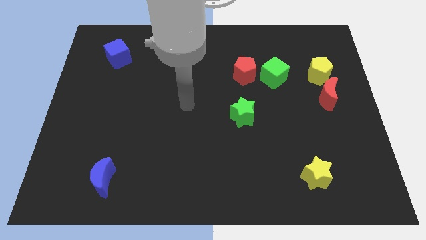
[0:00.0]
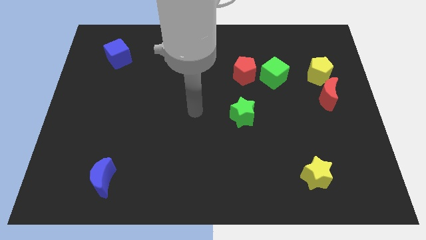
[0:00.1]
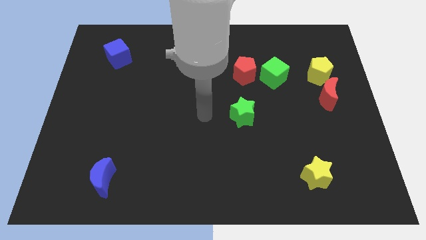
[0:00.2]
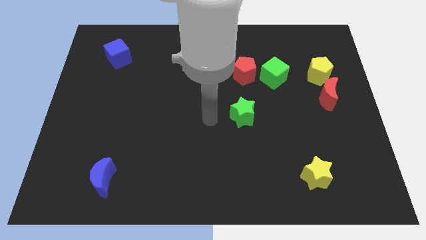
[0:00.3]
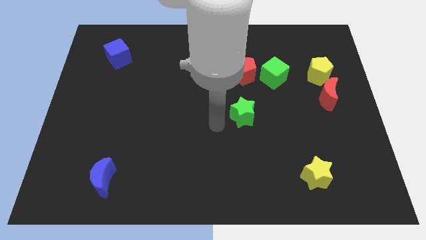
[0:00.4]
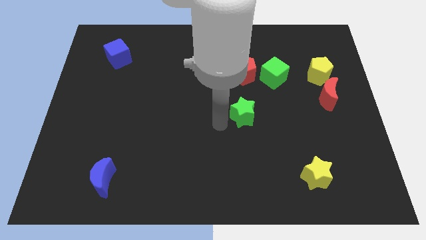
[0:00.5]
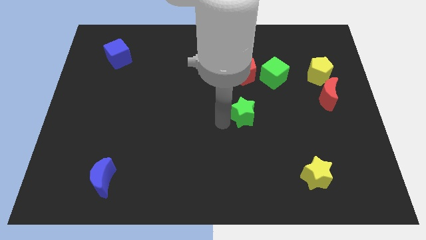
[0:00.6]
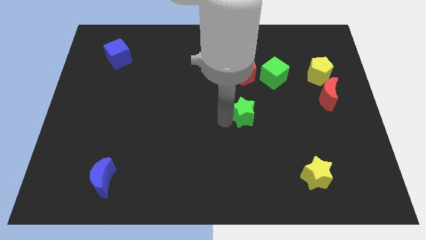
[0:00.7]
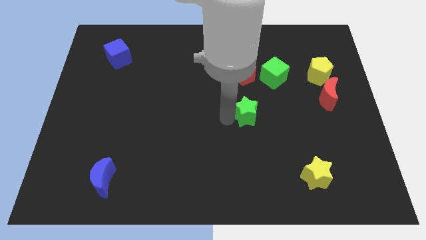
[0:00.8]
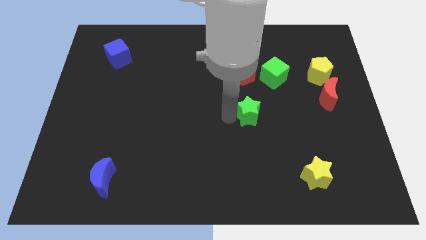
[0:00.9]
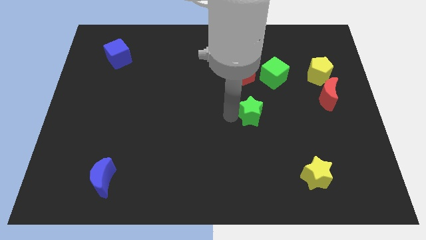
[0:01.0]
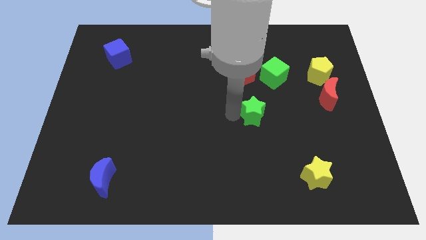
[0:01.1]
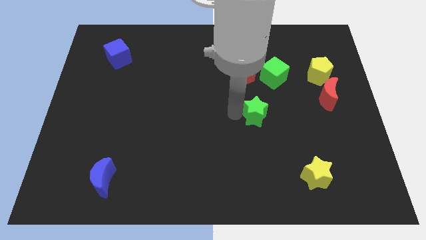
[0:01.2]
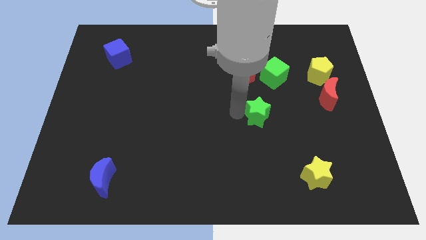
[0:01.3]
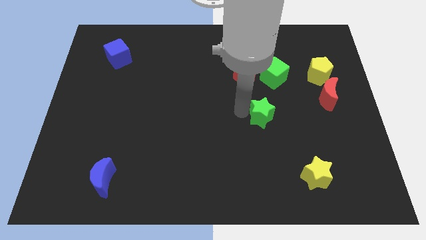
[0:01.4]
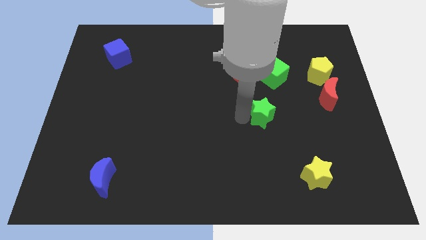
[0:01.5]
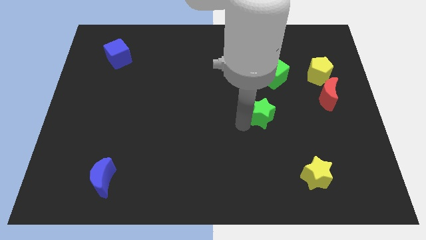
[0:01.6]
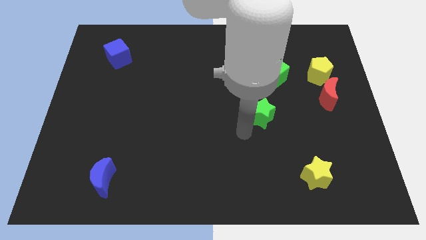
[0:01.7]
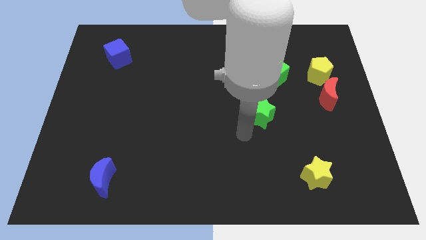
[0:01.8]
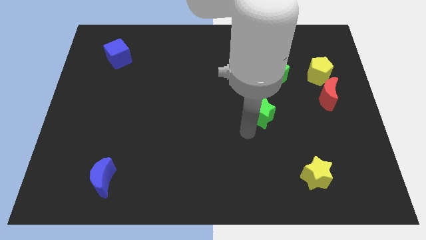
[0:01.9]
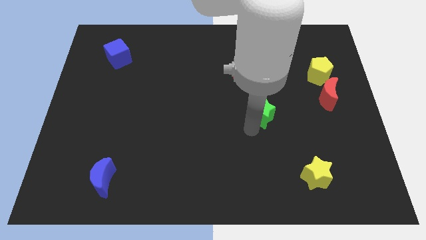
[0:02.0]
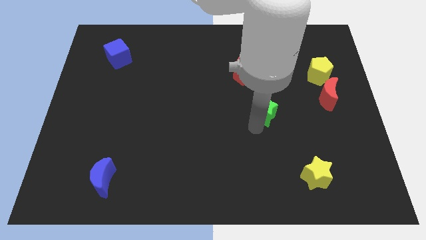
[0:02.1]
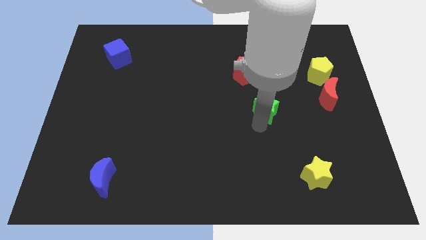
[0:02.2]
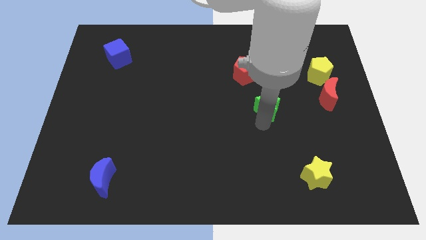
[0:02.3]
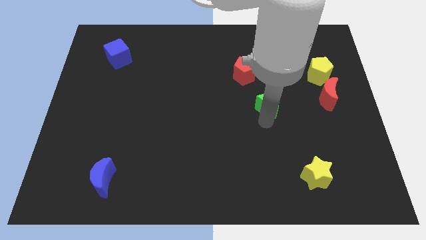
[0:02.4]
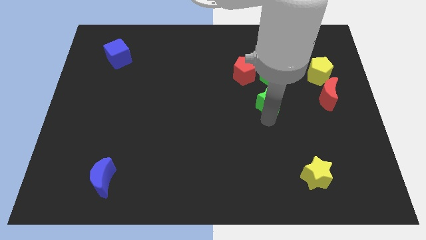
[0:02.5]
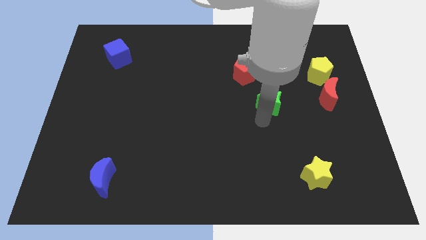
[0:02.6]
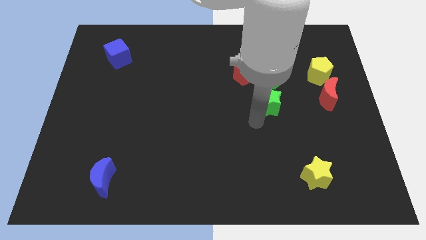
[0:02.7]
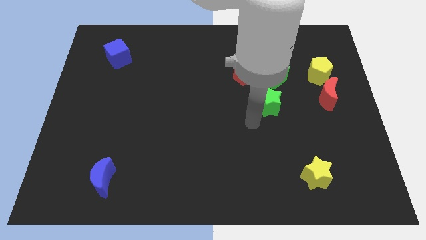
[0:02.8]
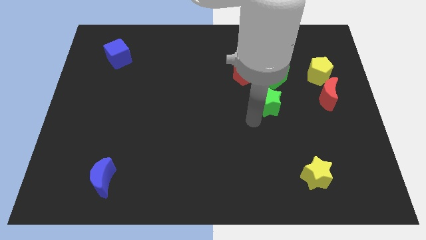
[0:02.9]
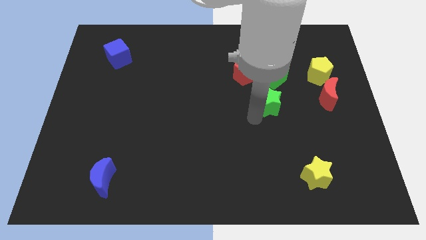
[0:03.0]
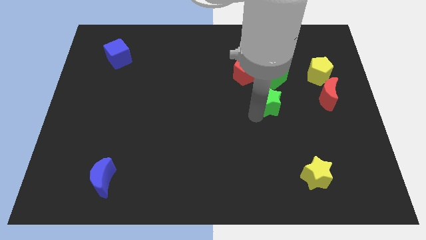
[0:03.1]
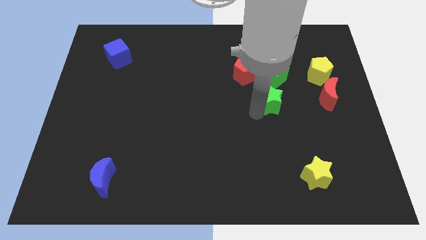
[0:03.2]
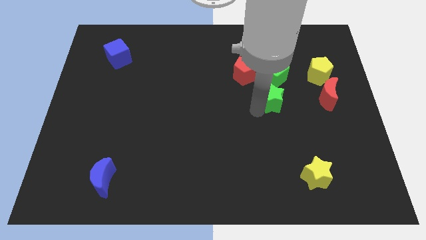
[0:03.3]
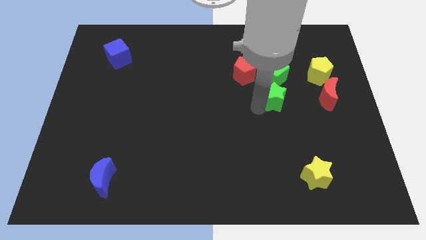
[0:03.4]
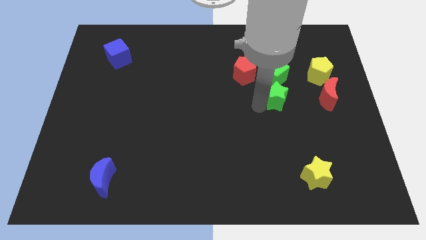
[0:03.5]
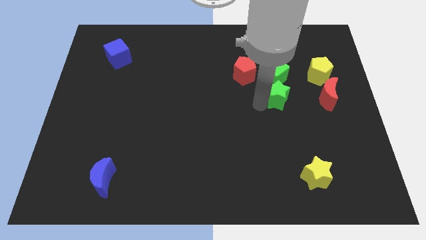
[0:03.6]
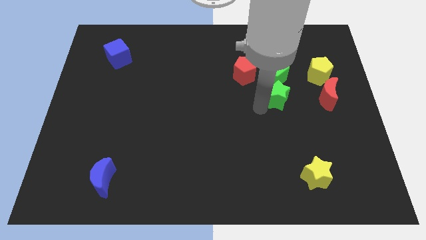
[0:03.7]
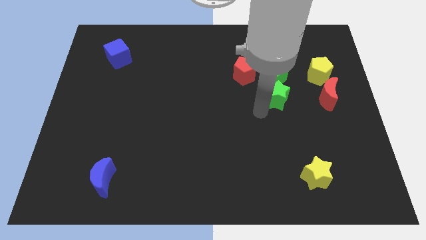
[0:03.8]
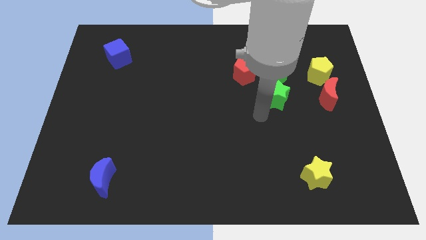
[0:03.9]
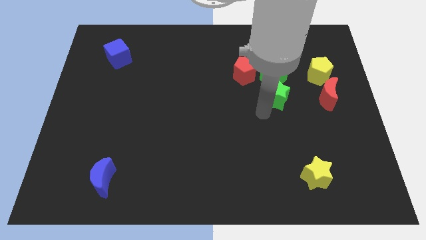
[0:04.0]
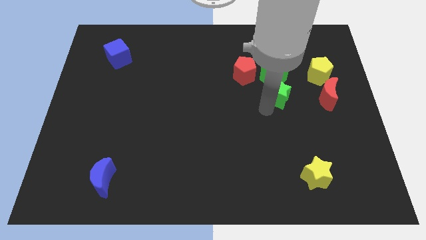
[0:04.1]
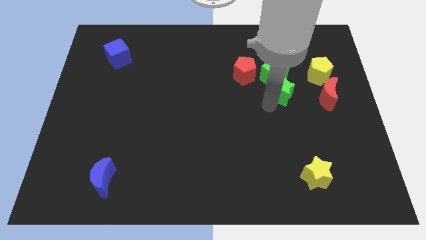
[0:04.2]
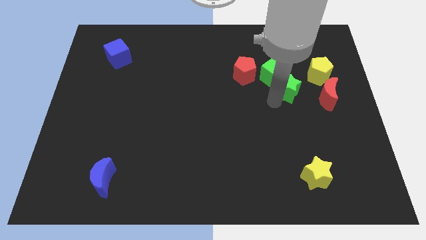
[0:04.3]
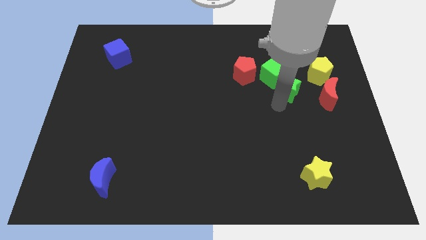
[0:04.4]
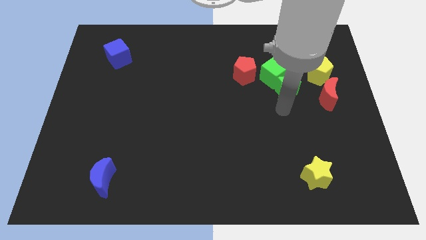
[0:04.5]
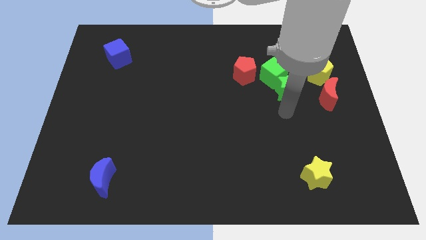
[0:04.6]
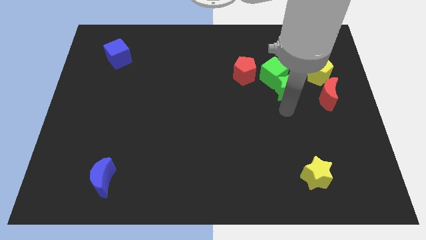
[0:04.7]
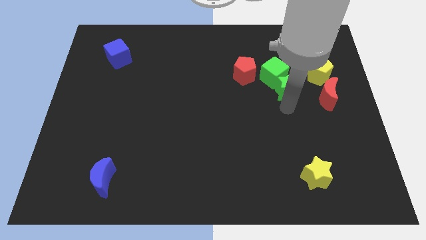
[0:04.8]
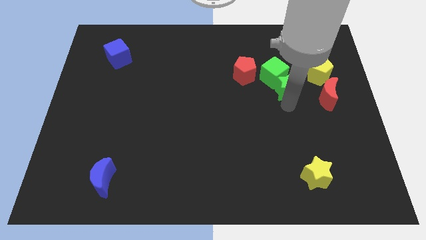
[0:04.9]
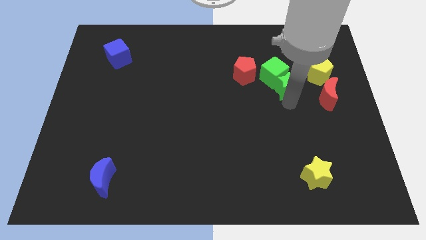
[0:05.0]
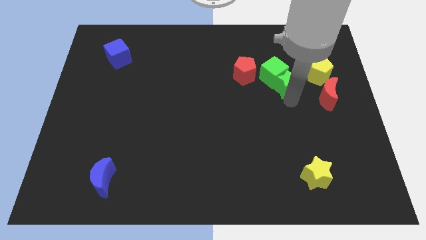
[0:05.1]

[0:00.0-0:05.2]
slide the green star just right of the red pentagon

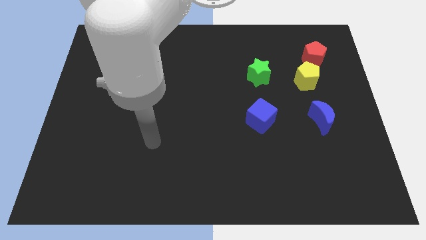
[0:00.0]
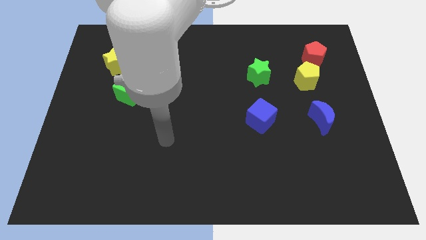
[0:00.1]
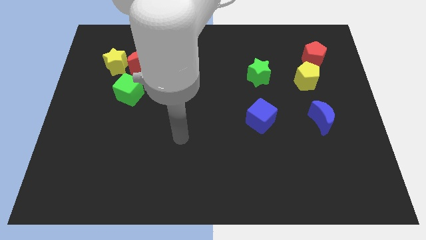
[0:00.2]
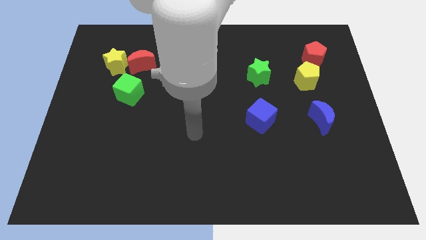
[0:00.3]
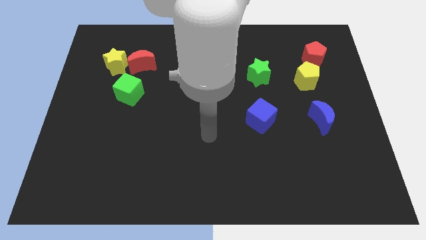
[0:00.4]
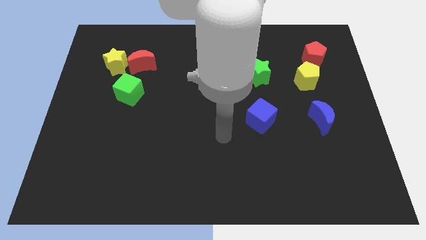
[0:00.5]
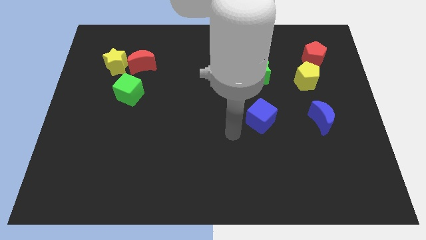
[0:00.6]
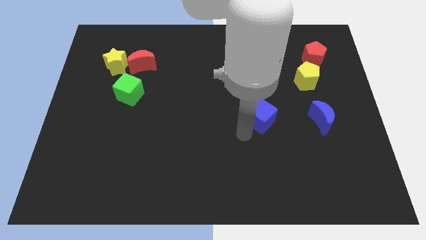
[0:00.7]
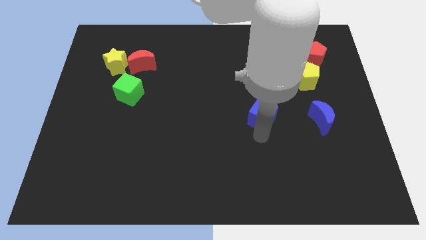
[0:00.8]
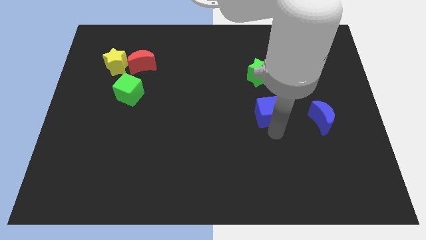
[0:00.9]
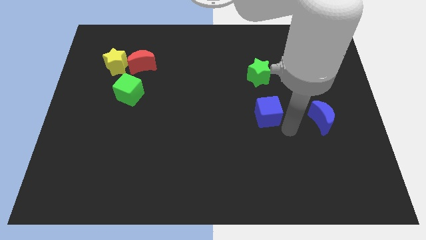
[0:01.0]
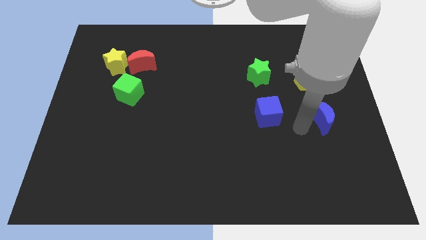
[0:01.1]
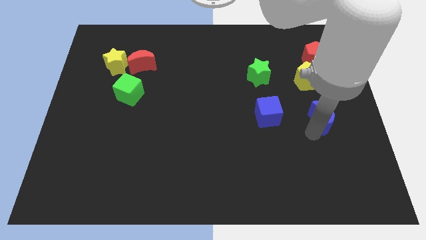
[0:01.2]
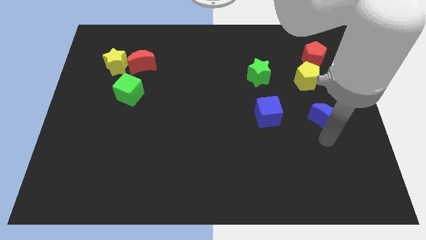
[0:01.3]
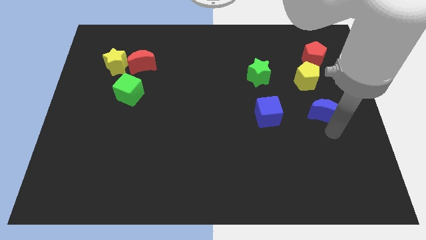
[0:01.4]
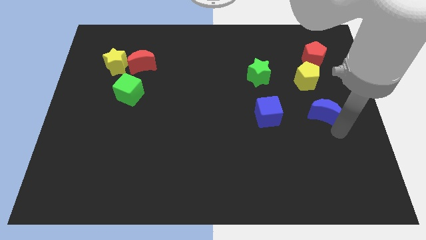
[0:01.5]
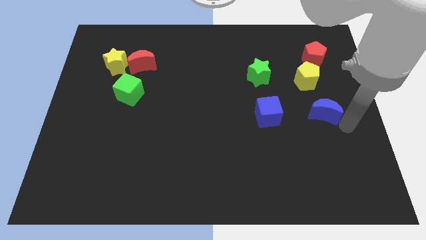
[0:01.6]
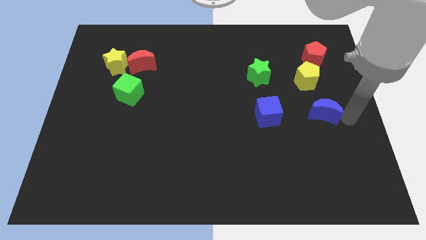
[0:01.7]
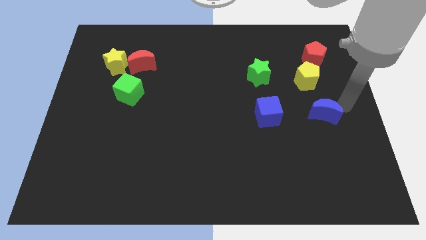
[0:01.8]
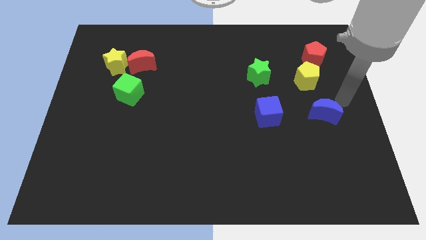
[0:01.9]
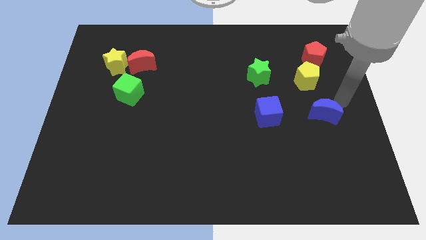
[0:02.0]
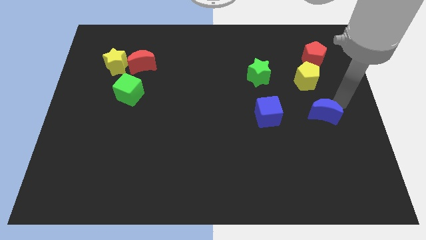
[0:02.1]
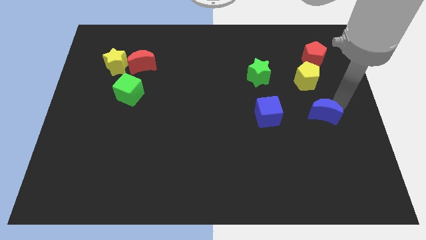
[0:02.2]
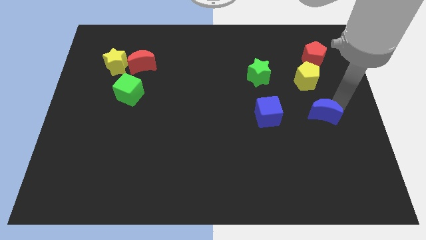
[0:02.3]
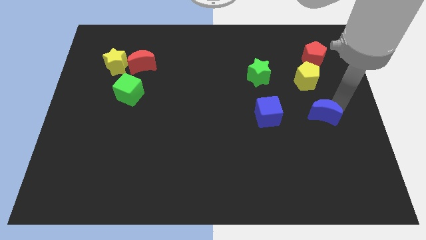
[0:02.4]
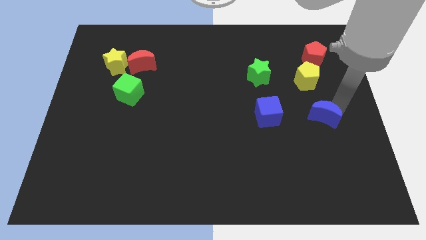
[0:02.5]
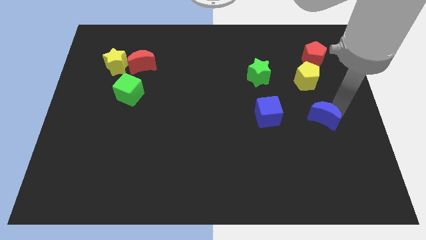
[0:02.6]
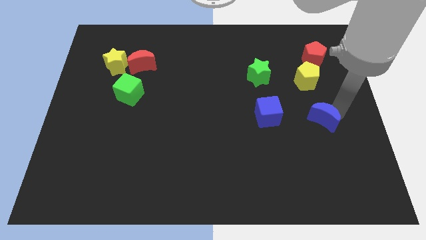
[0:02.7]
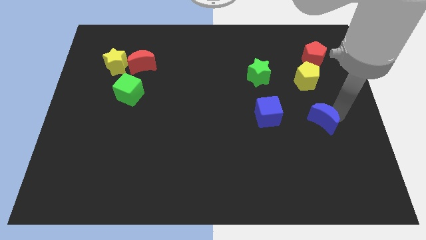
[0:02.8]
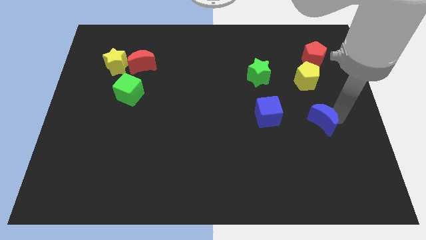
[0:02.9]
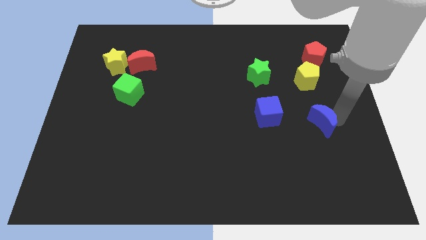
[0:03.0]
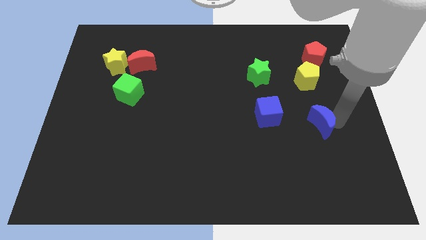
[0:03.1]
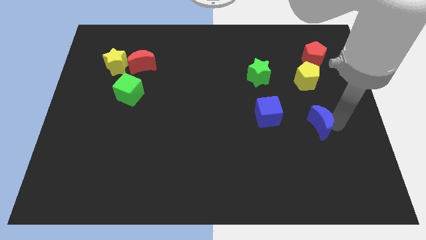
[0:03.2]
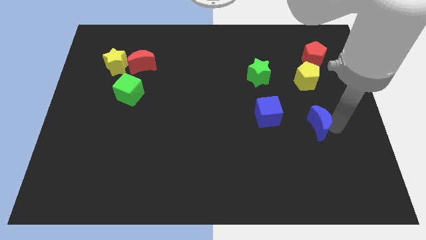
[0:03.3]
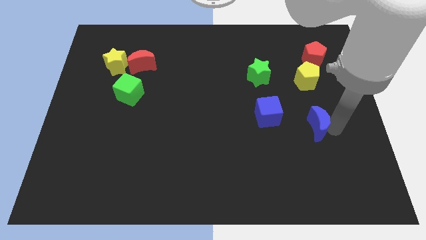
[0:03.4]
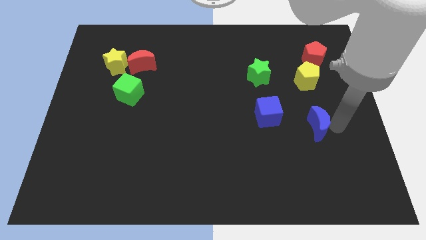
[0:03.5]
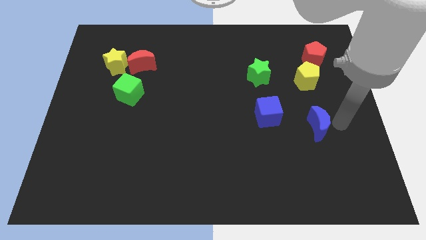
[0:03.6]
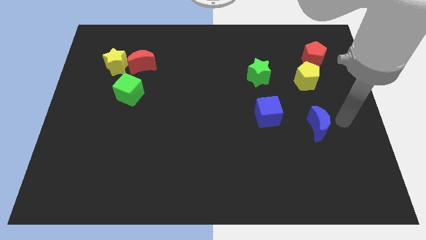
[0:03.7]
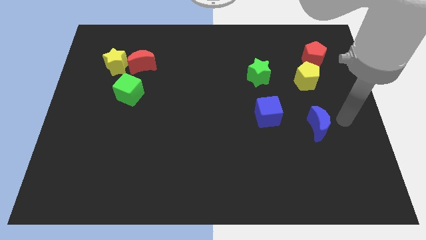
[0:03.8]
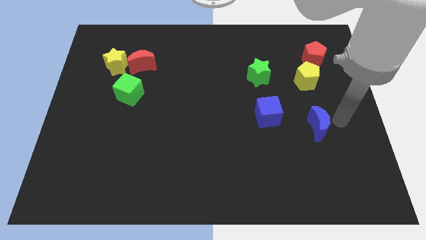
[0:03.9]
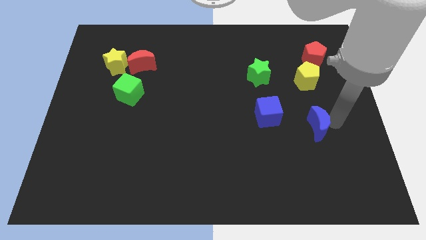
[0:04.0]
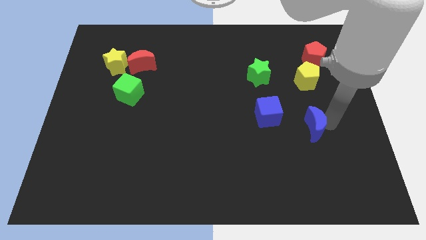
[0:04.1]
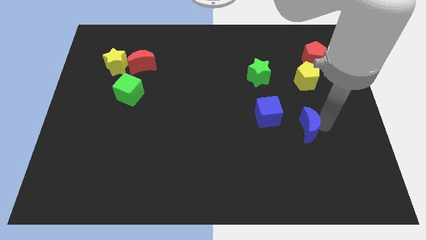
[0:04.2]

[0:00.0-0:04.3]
slide the blue moon diagonally down and to the right of the blue cube
